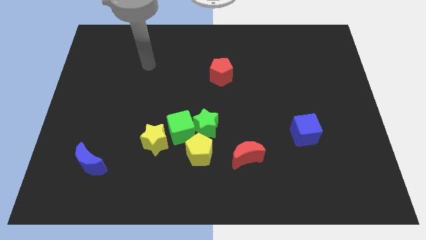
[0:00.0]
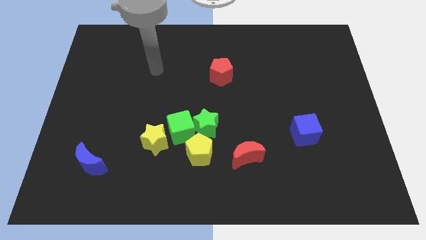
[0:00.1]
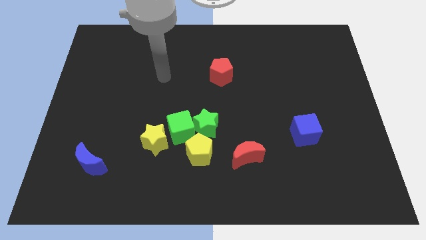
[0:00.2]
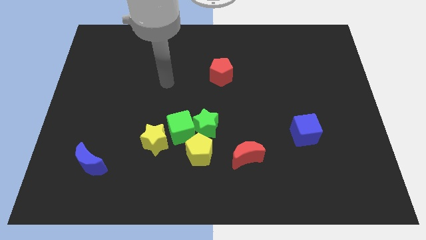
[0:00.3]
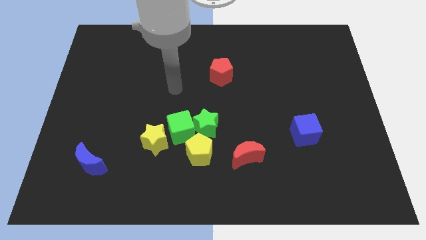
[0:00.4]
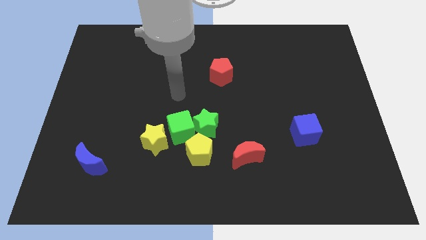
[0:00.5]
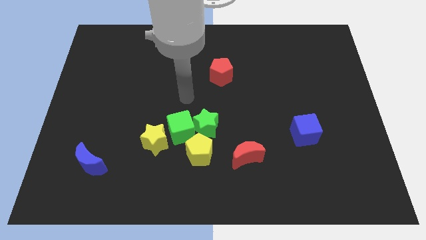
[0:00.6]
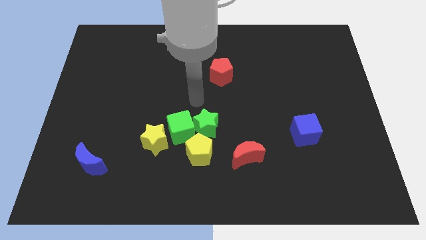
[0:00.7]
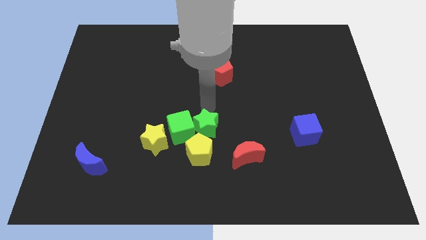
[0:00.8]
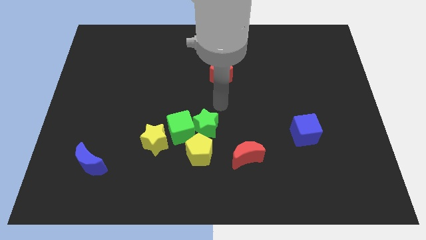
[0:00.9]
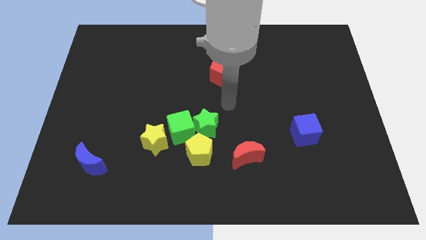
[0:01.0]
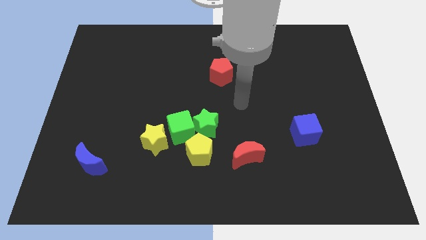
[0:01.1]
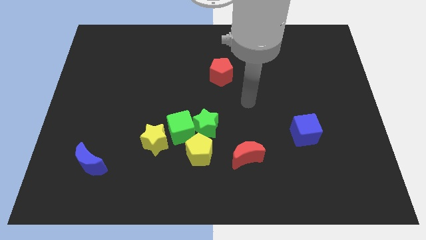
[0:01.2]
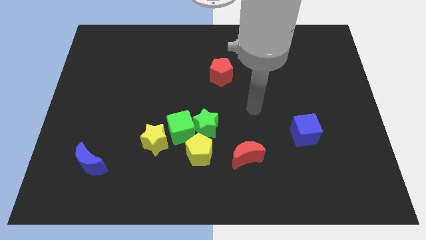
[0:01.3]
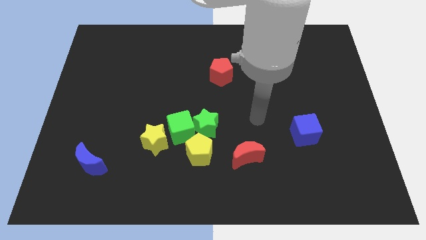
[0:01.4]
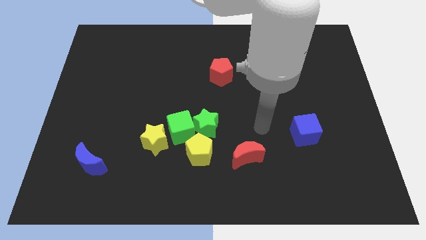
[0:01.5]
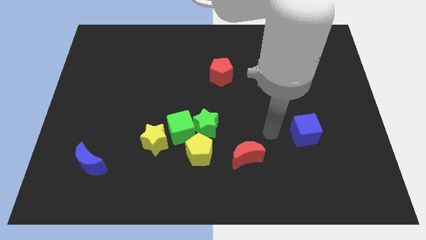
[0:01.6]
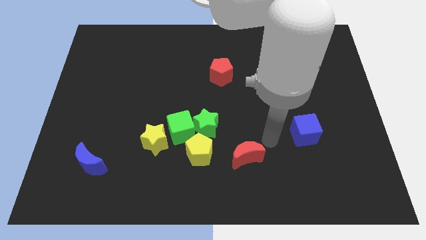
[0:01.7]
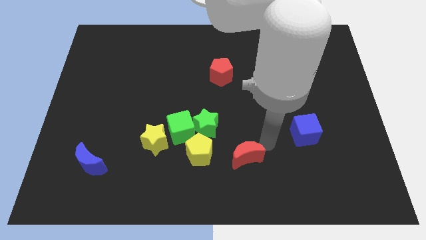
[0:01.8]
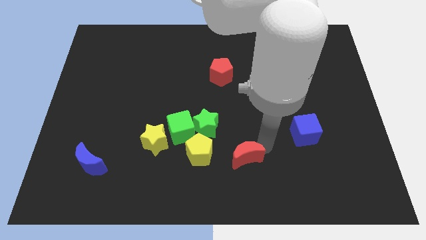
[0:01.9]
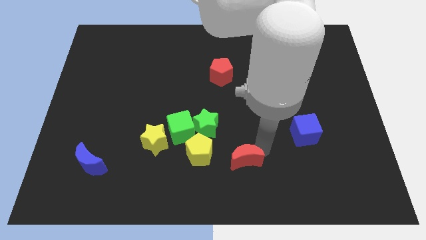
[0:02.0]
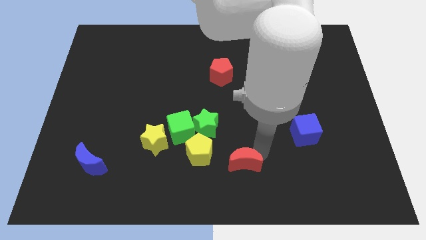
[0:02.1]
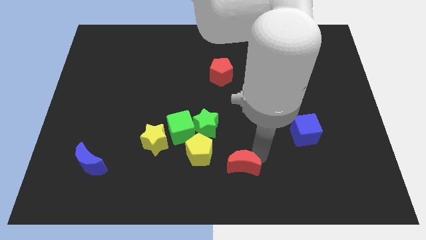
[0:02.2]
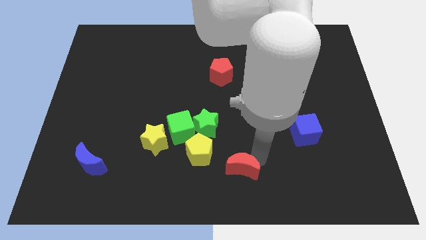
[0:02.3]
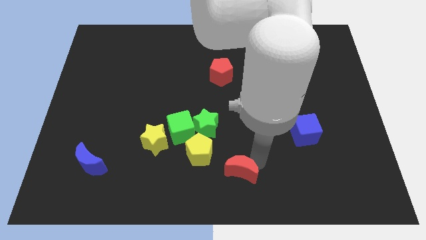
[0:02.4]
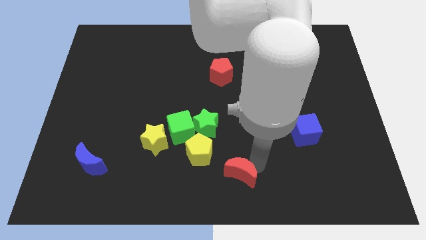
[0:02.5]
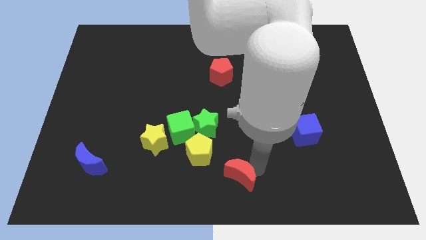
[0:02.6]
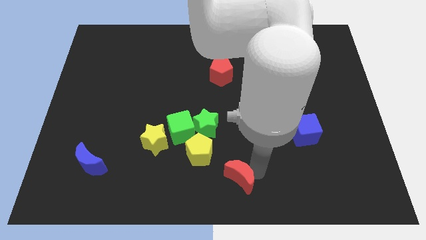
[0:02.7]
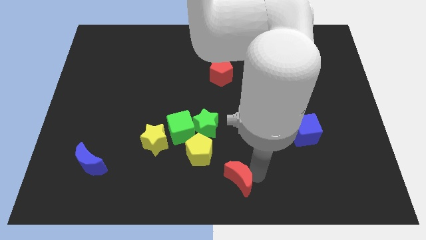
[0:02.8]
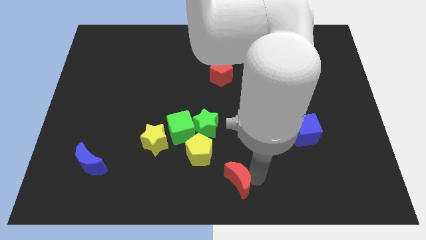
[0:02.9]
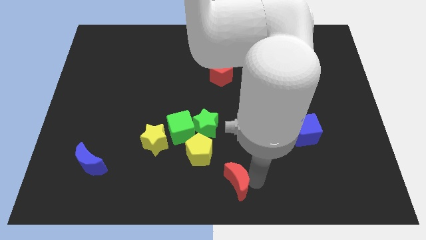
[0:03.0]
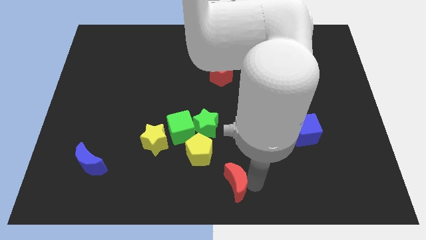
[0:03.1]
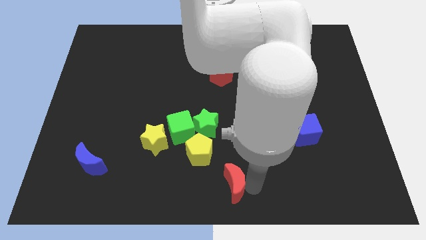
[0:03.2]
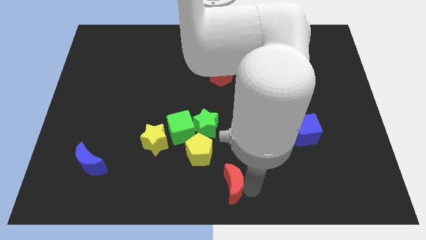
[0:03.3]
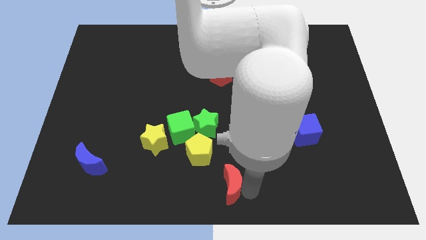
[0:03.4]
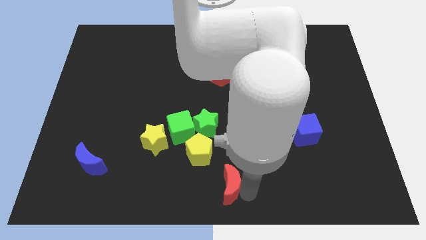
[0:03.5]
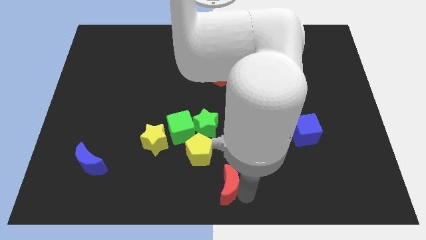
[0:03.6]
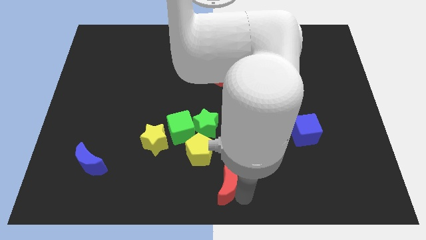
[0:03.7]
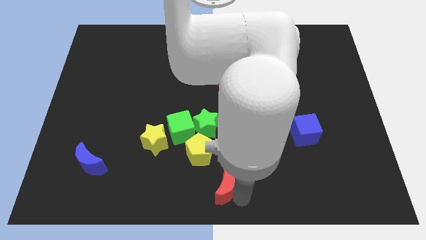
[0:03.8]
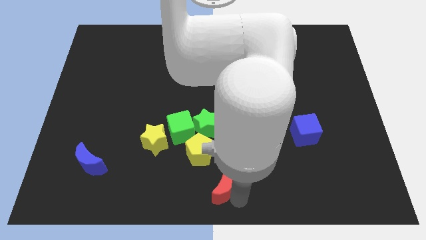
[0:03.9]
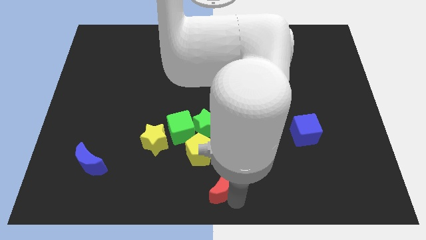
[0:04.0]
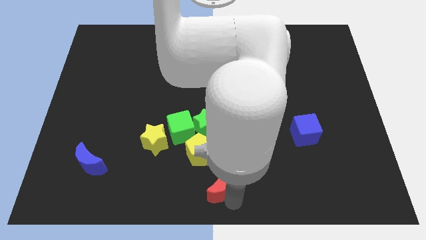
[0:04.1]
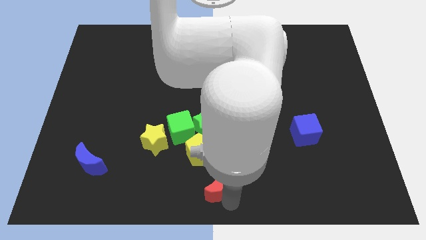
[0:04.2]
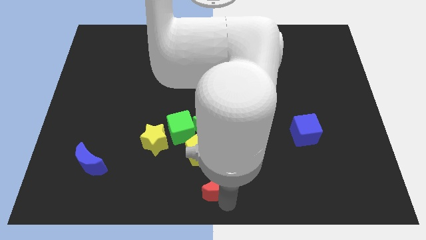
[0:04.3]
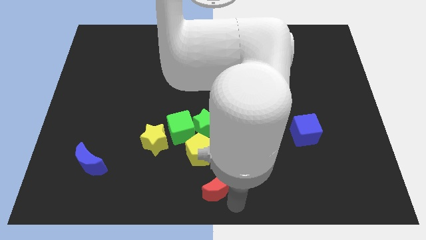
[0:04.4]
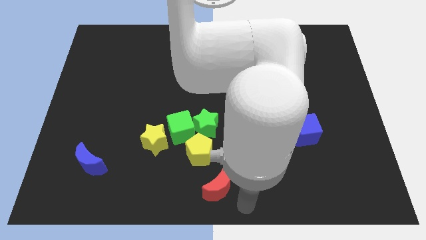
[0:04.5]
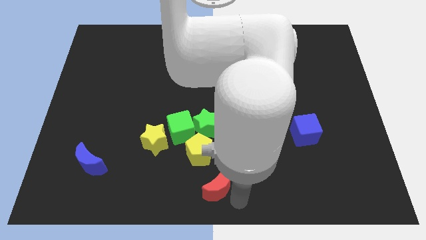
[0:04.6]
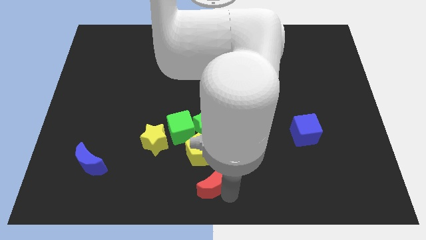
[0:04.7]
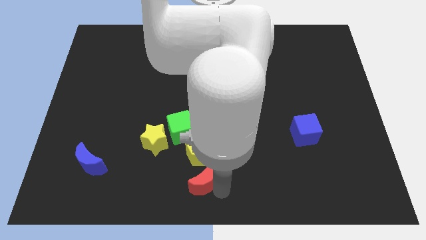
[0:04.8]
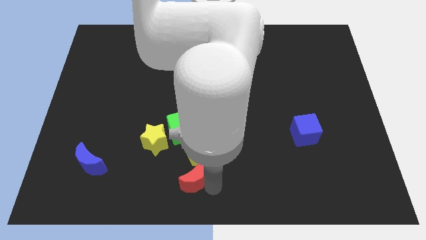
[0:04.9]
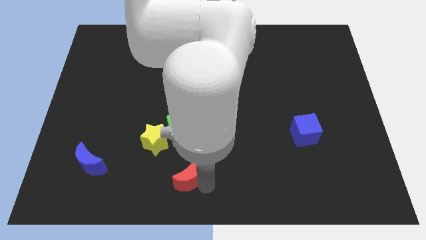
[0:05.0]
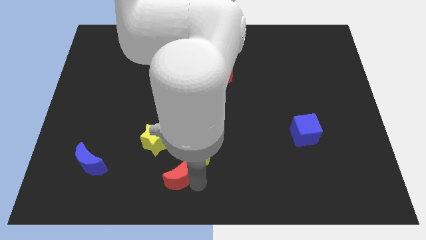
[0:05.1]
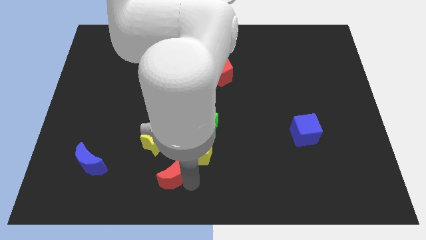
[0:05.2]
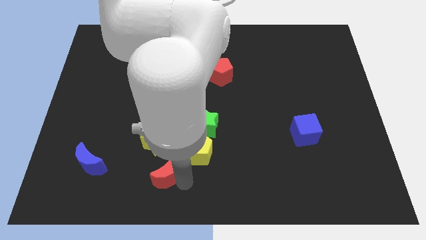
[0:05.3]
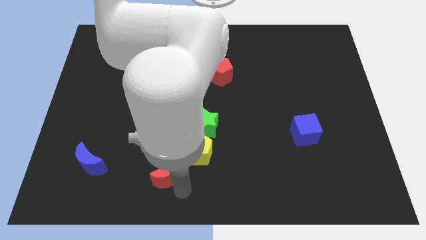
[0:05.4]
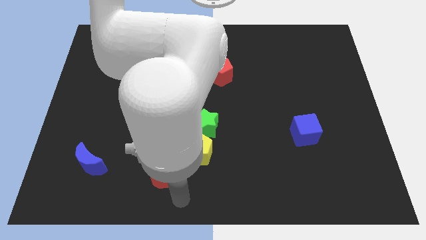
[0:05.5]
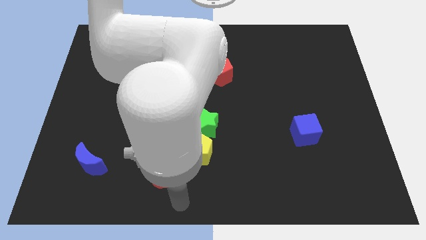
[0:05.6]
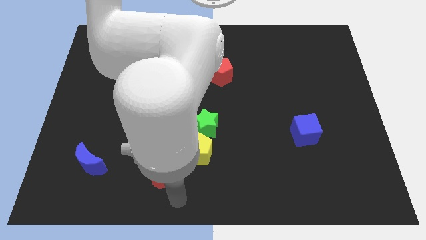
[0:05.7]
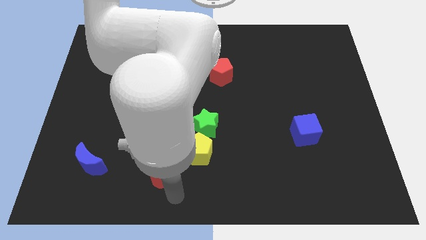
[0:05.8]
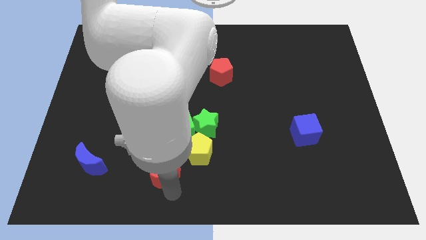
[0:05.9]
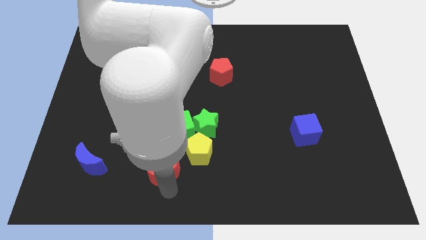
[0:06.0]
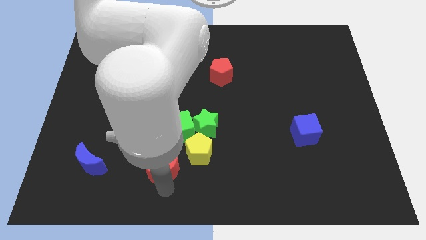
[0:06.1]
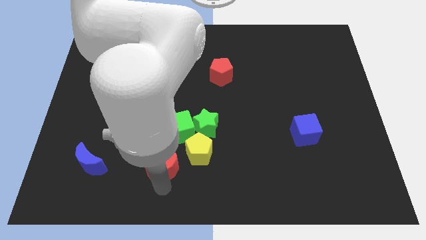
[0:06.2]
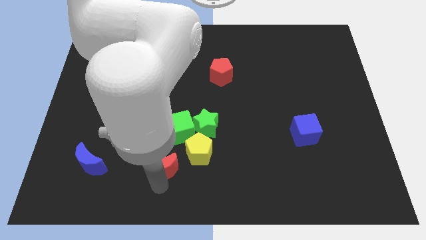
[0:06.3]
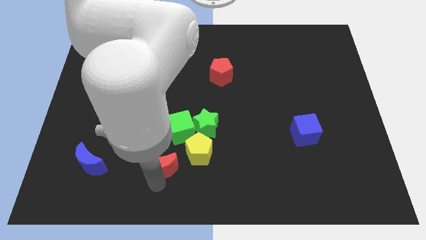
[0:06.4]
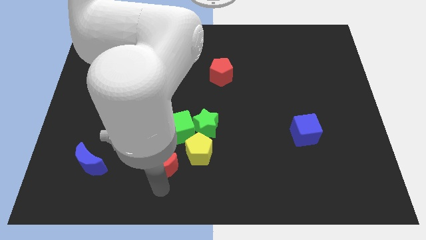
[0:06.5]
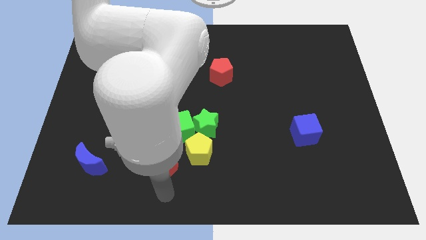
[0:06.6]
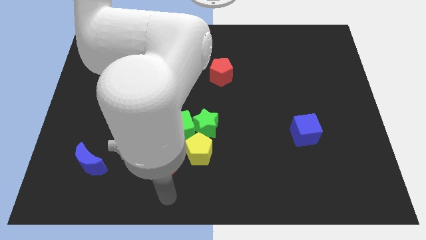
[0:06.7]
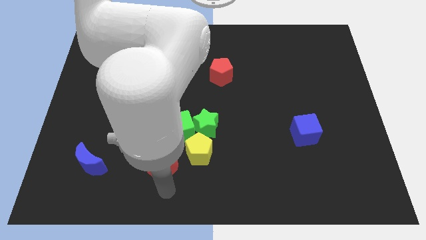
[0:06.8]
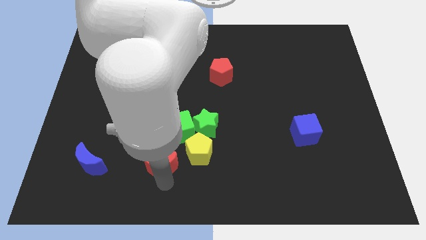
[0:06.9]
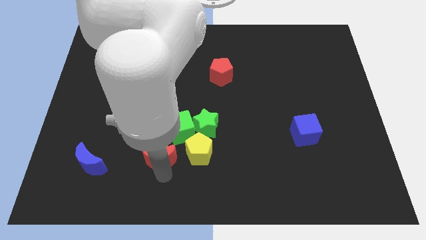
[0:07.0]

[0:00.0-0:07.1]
put the red moon close to the yellow star

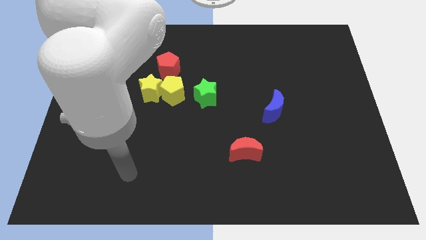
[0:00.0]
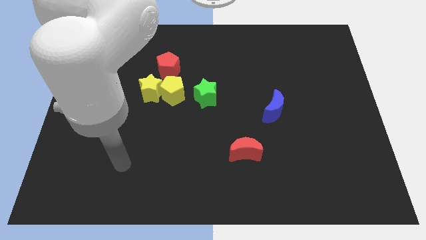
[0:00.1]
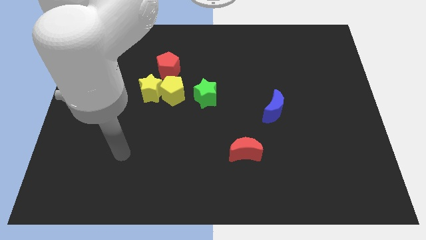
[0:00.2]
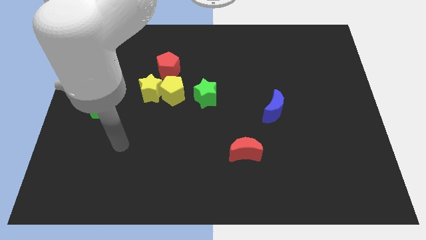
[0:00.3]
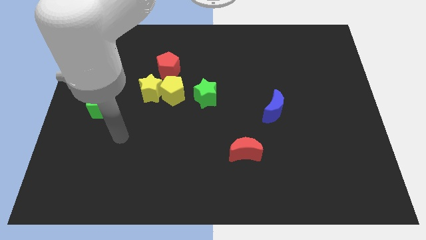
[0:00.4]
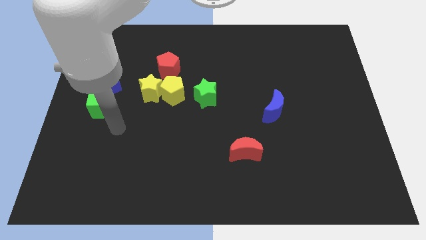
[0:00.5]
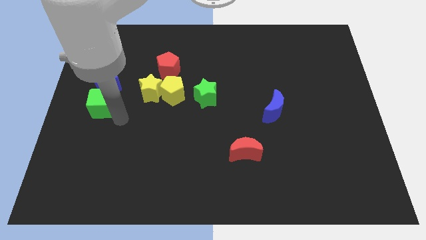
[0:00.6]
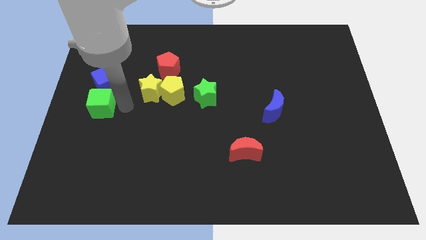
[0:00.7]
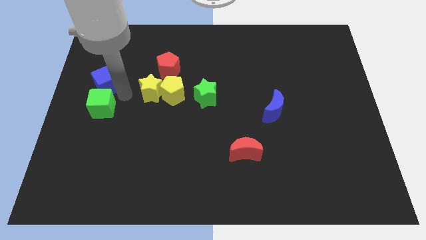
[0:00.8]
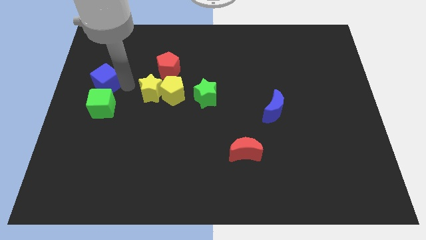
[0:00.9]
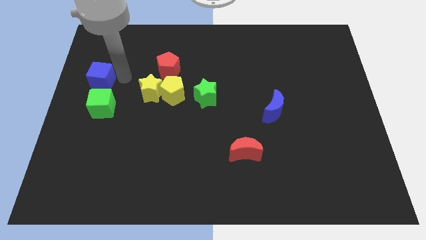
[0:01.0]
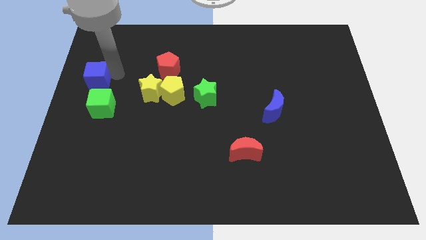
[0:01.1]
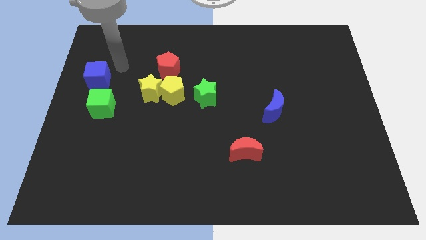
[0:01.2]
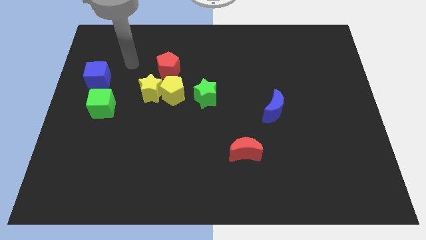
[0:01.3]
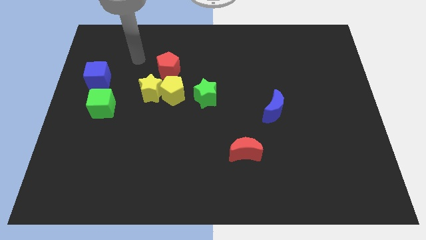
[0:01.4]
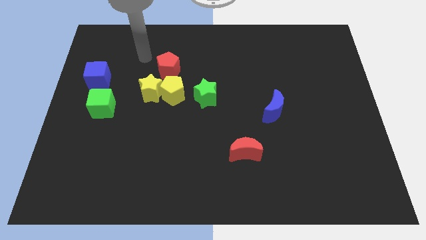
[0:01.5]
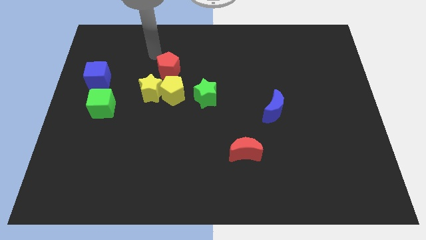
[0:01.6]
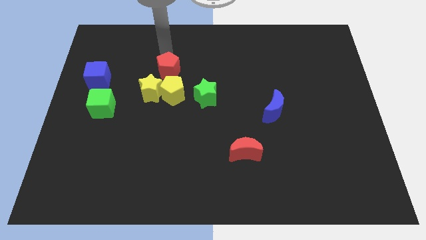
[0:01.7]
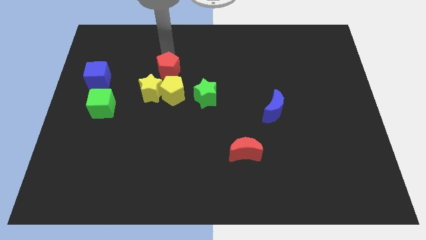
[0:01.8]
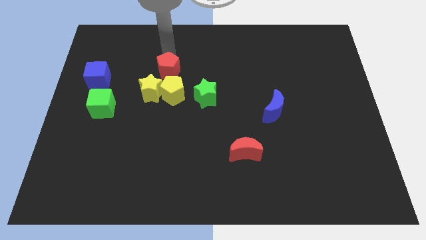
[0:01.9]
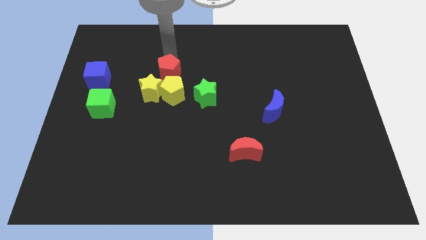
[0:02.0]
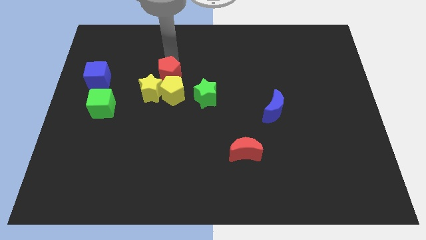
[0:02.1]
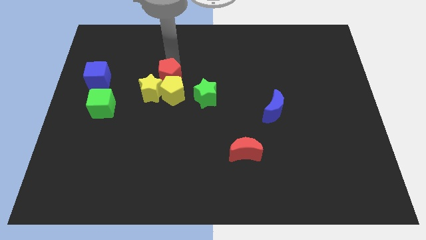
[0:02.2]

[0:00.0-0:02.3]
push the red pentagon towards the yellow pentagon
